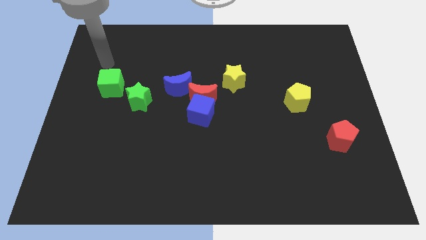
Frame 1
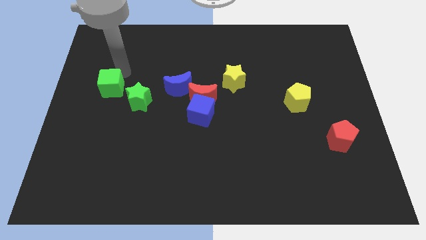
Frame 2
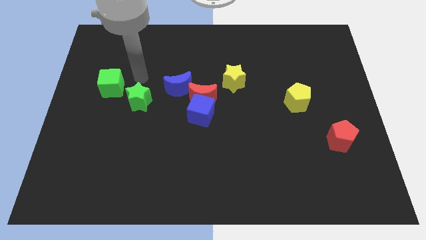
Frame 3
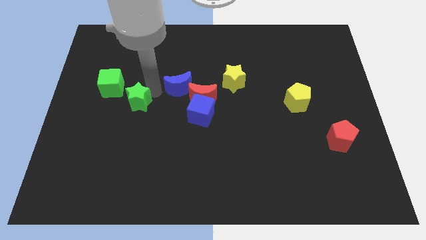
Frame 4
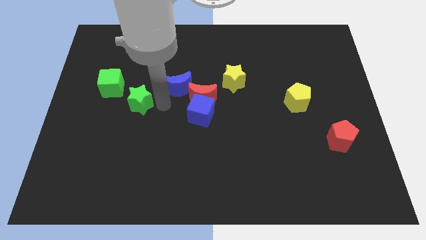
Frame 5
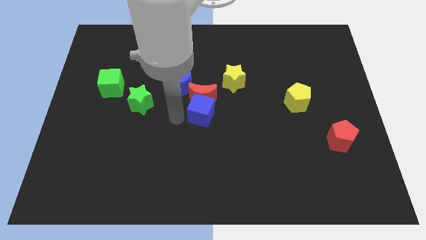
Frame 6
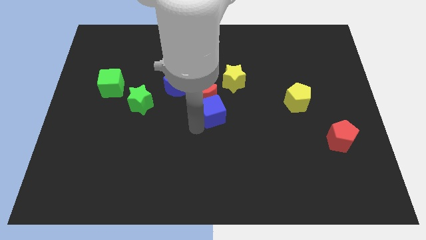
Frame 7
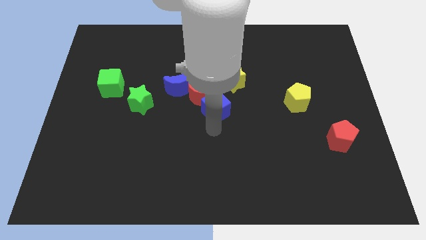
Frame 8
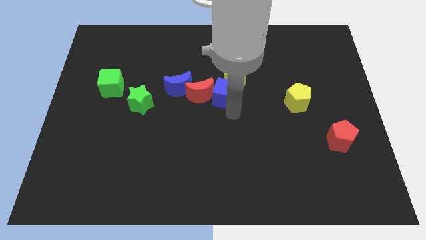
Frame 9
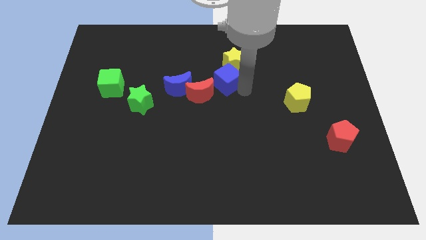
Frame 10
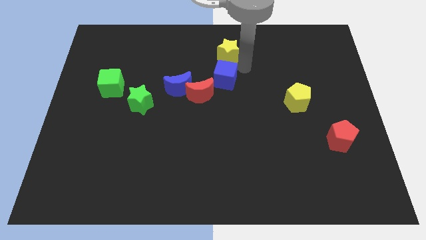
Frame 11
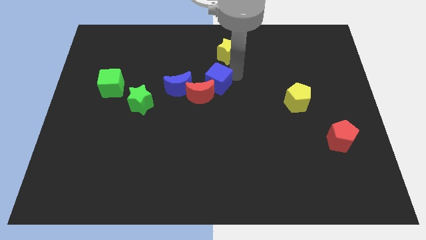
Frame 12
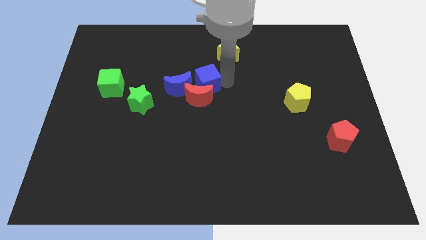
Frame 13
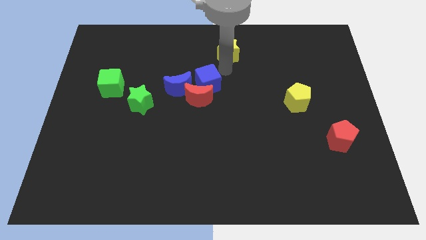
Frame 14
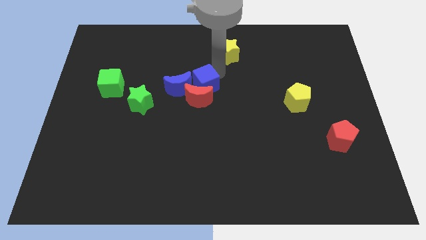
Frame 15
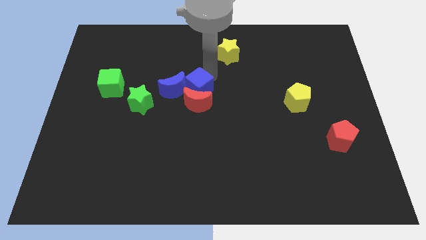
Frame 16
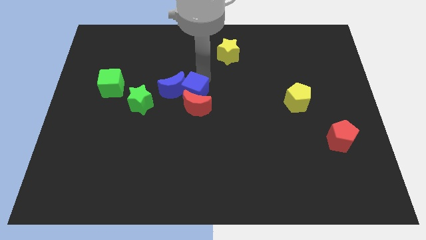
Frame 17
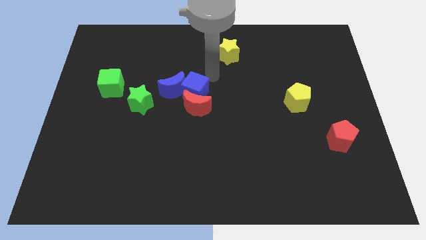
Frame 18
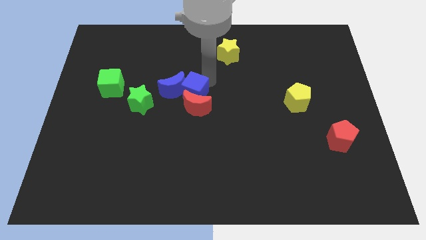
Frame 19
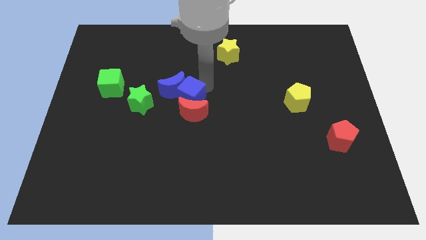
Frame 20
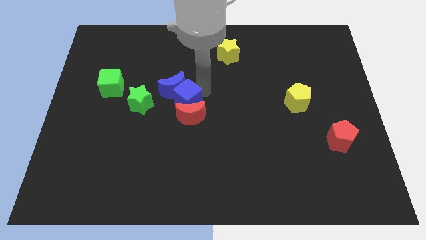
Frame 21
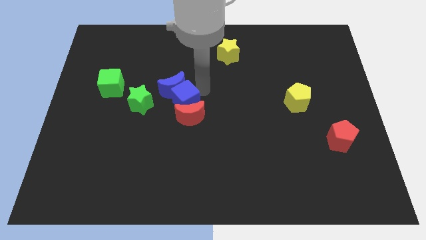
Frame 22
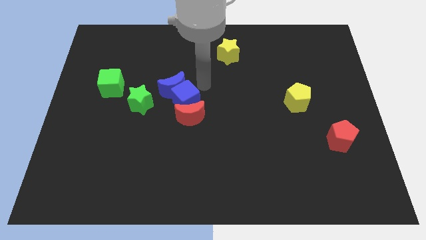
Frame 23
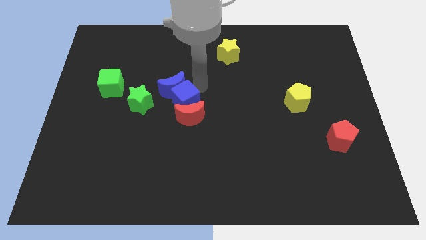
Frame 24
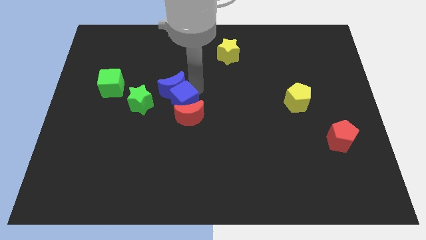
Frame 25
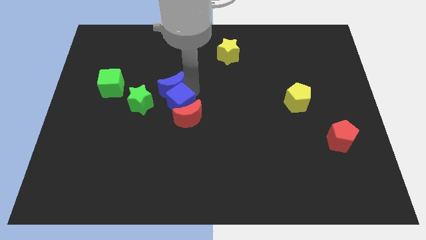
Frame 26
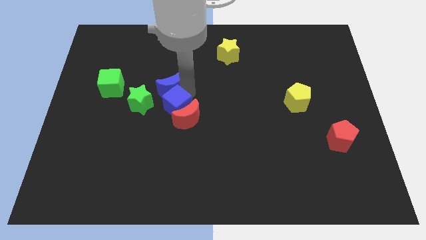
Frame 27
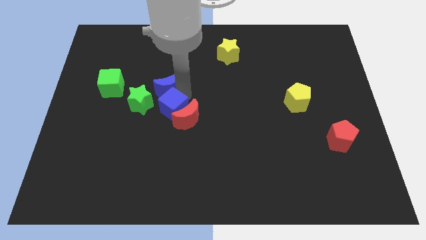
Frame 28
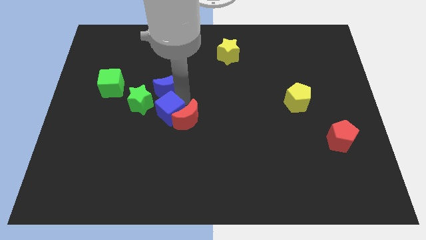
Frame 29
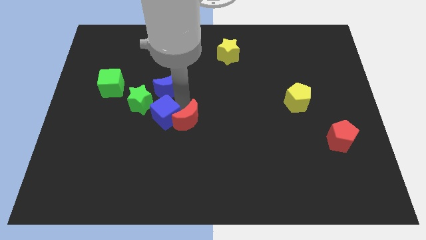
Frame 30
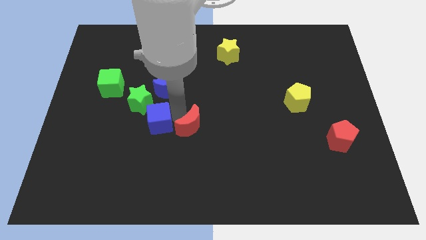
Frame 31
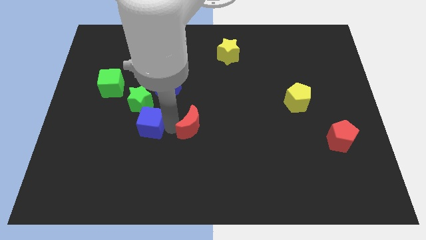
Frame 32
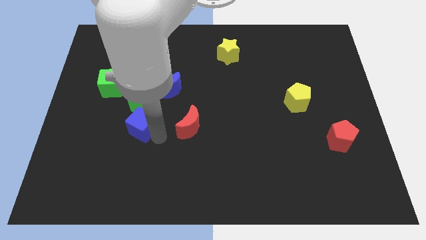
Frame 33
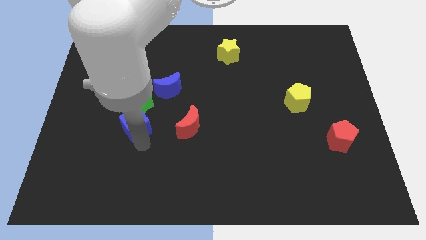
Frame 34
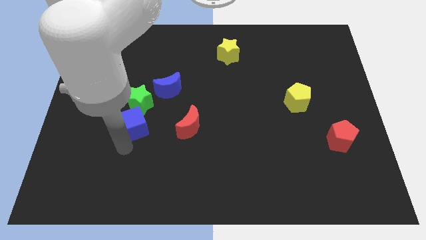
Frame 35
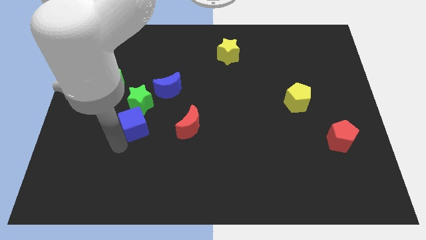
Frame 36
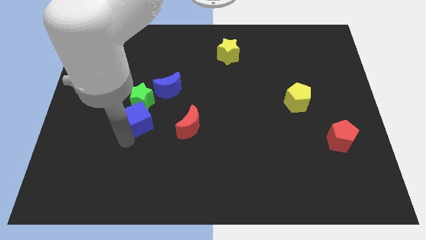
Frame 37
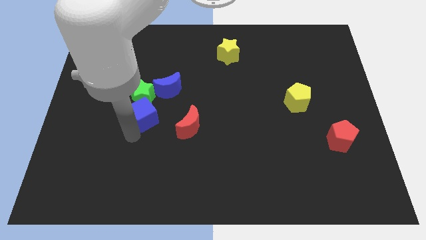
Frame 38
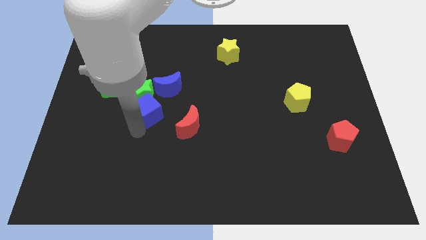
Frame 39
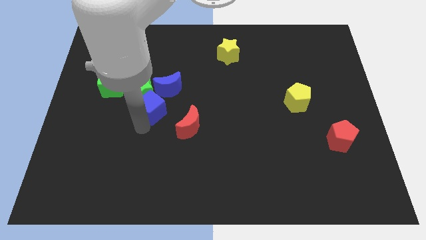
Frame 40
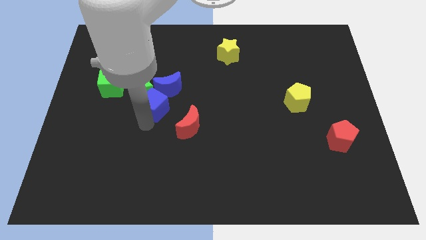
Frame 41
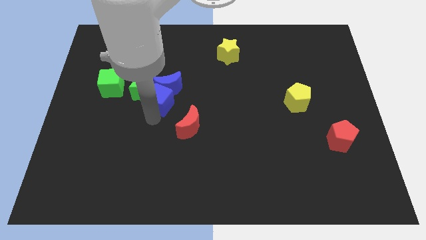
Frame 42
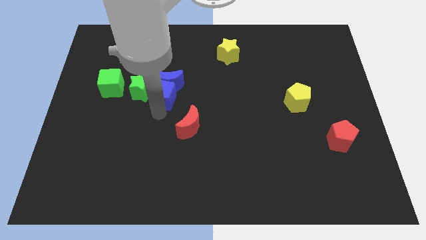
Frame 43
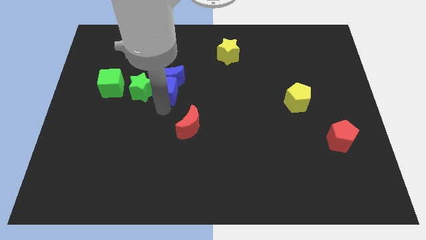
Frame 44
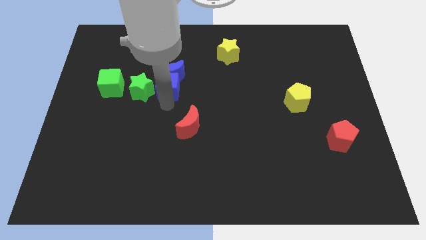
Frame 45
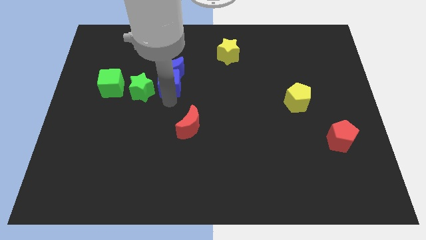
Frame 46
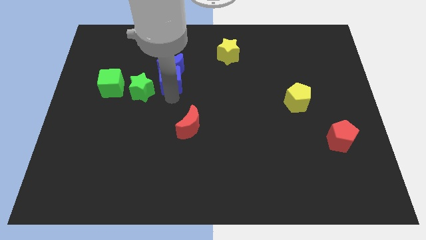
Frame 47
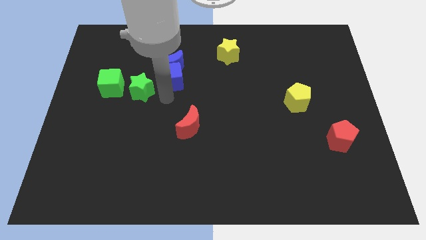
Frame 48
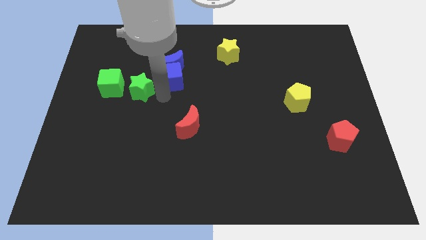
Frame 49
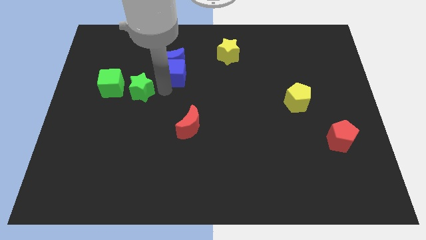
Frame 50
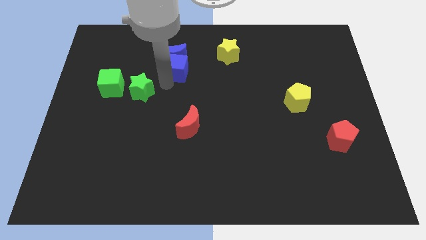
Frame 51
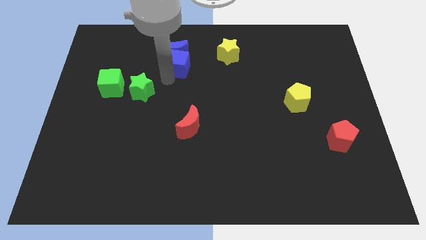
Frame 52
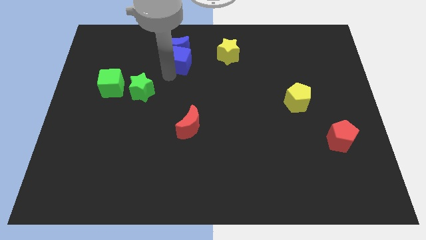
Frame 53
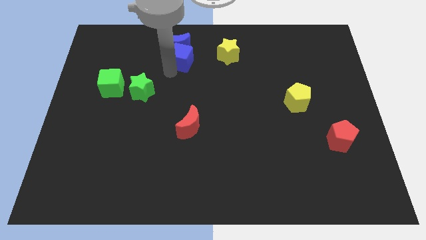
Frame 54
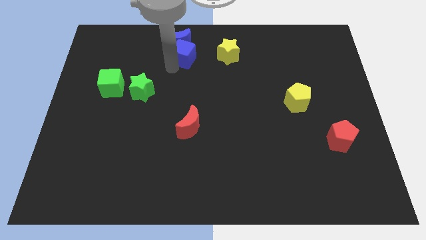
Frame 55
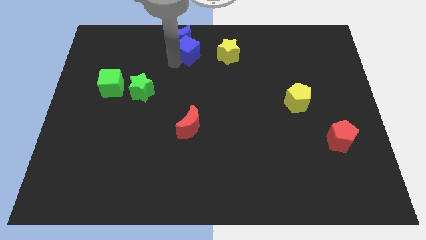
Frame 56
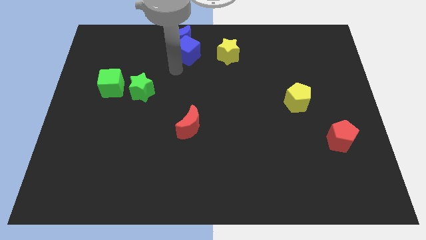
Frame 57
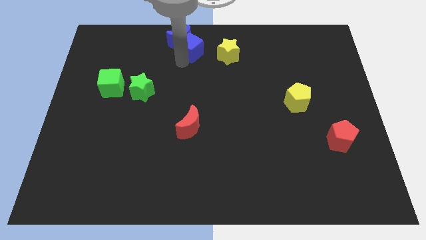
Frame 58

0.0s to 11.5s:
put the blue cube to the towards your base
